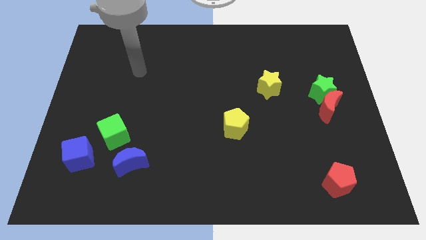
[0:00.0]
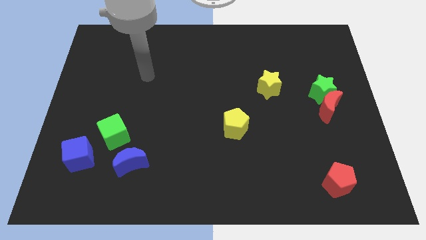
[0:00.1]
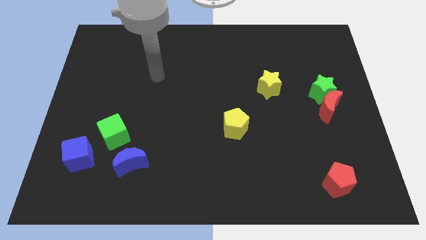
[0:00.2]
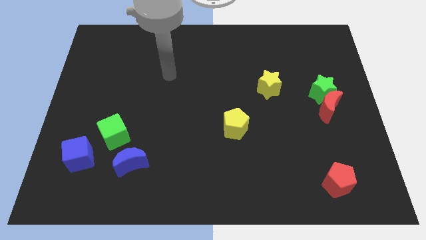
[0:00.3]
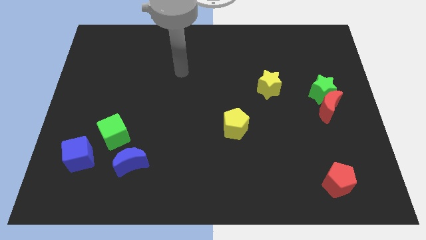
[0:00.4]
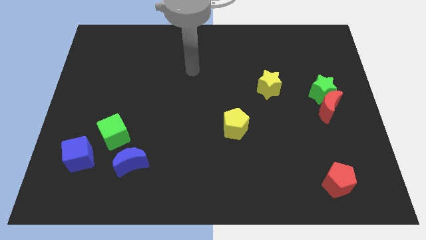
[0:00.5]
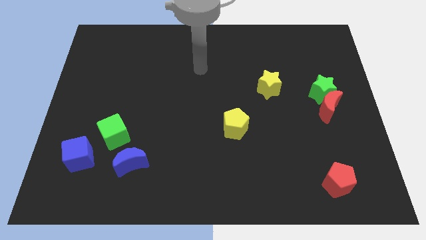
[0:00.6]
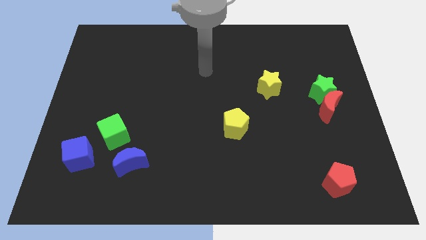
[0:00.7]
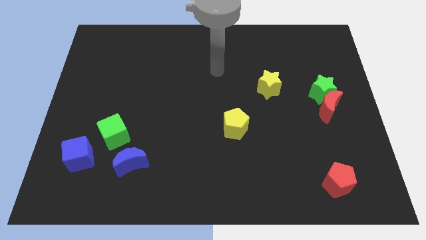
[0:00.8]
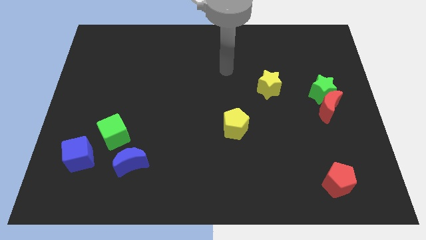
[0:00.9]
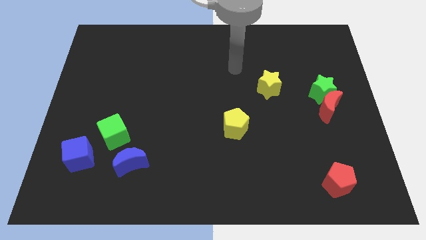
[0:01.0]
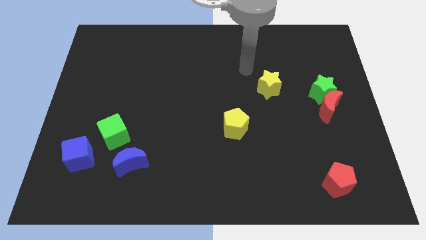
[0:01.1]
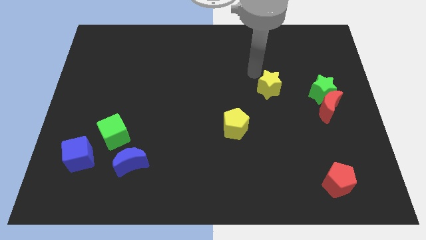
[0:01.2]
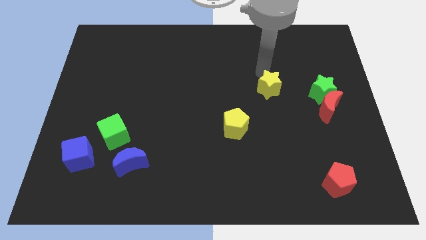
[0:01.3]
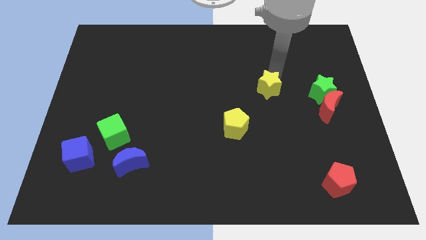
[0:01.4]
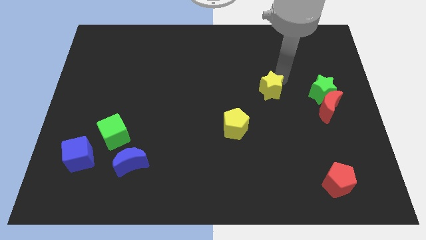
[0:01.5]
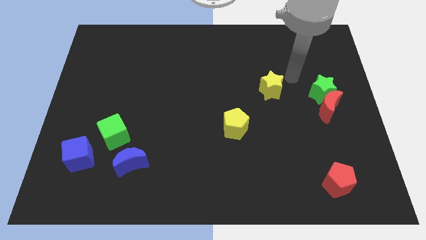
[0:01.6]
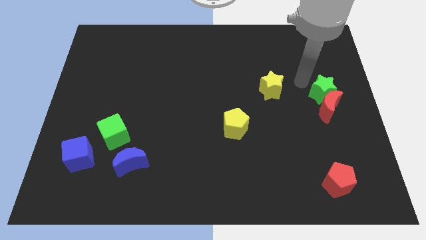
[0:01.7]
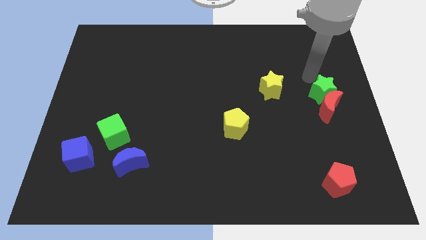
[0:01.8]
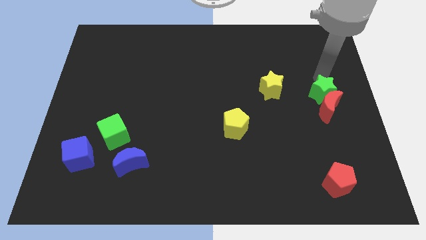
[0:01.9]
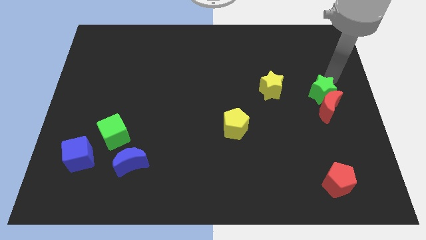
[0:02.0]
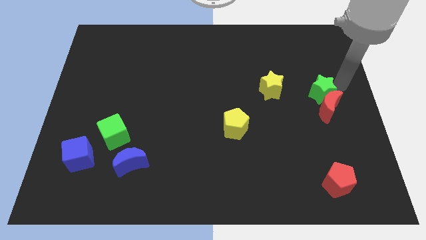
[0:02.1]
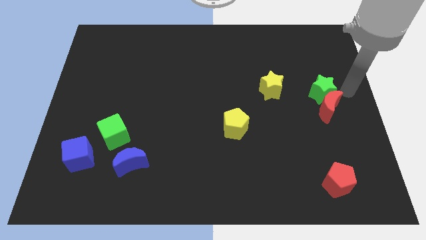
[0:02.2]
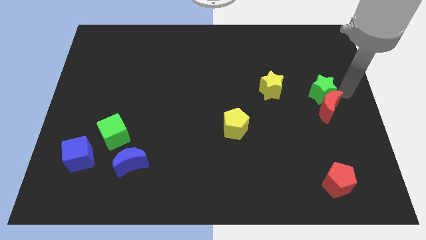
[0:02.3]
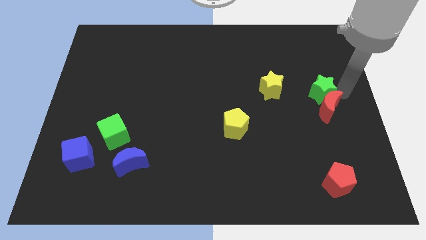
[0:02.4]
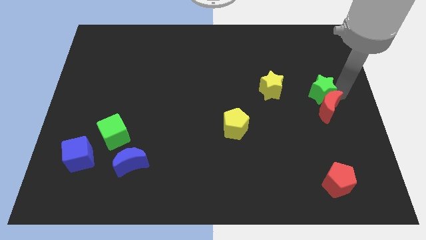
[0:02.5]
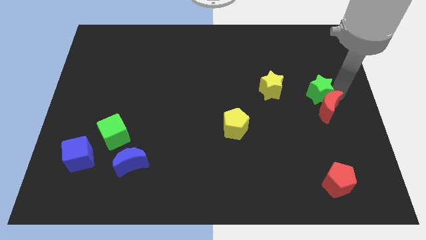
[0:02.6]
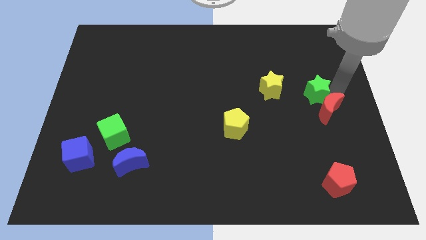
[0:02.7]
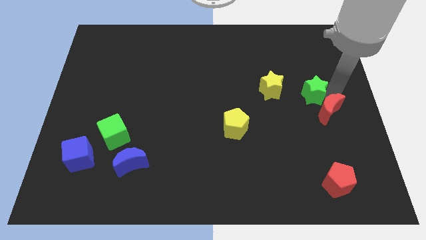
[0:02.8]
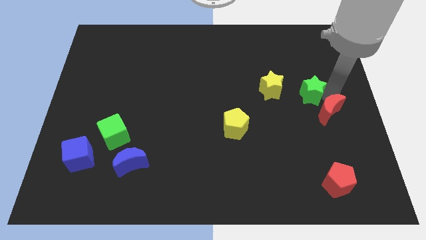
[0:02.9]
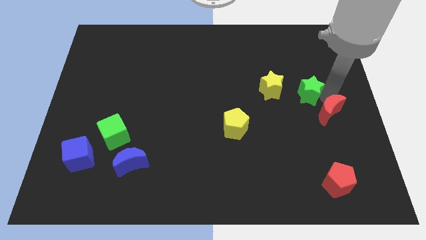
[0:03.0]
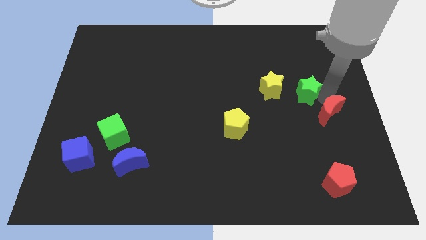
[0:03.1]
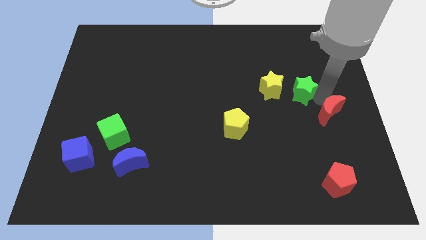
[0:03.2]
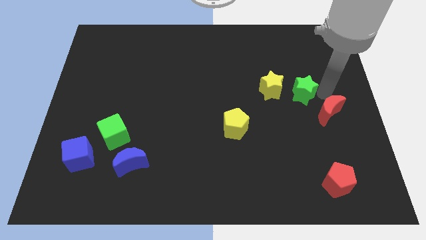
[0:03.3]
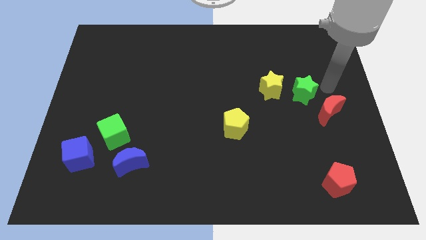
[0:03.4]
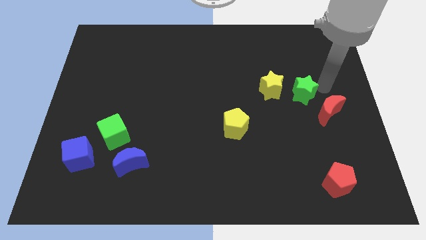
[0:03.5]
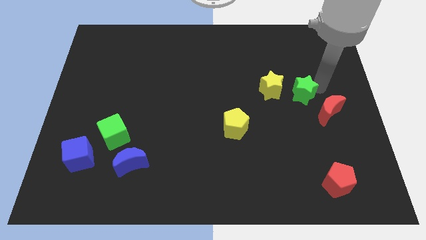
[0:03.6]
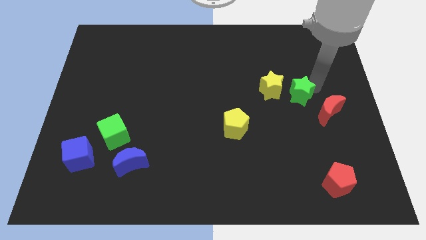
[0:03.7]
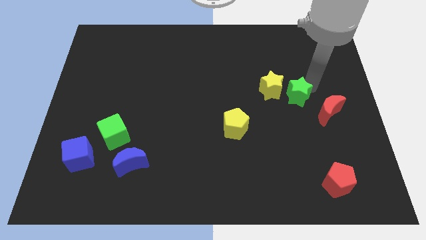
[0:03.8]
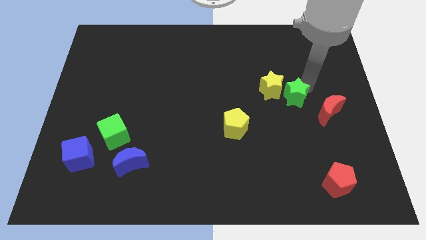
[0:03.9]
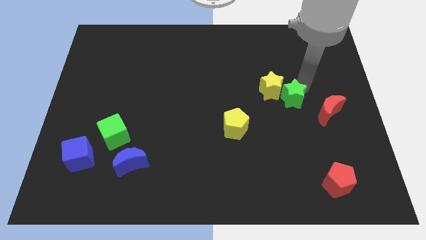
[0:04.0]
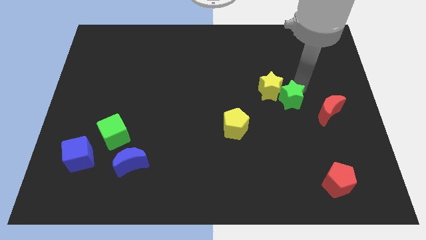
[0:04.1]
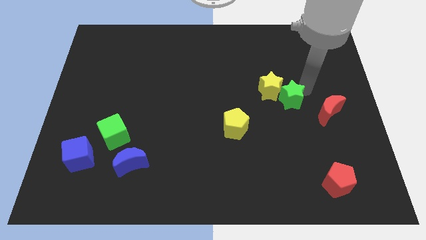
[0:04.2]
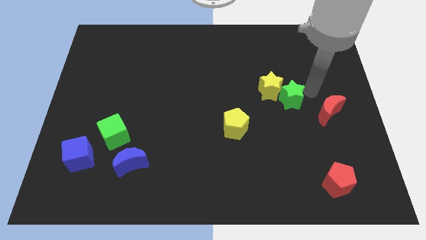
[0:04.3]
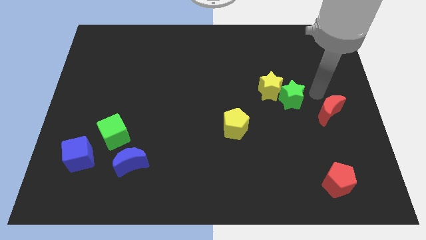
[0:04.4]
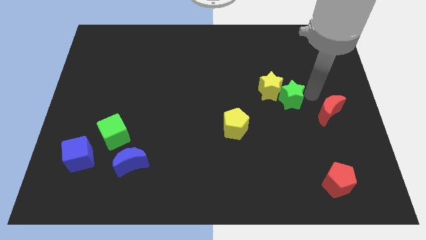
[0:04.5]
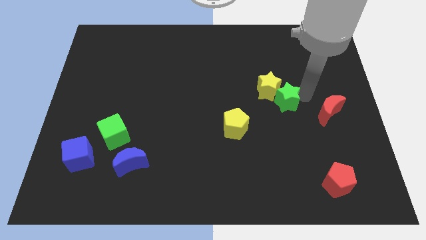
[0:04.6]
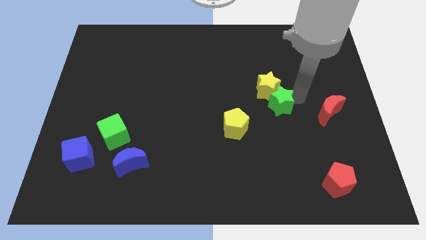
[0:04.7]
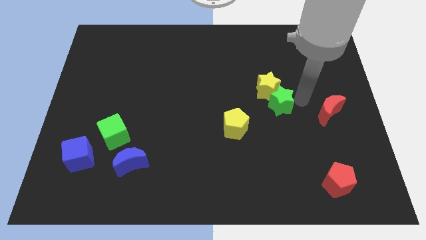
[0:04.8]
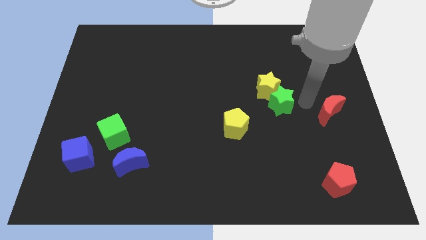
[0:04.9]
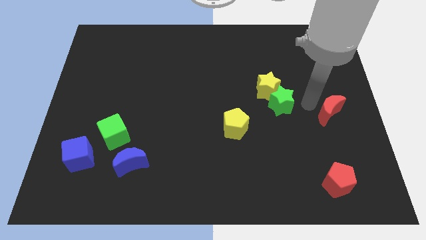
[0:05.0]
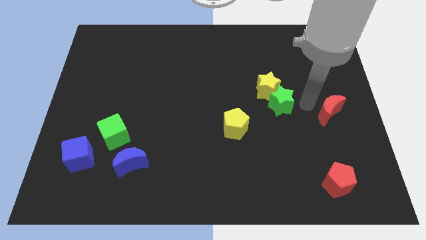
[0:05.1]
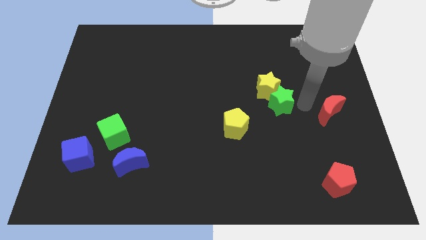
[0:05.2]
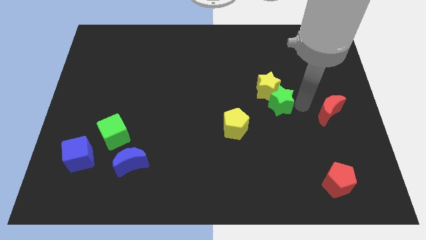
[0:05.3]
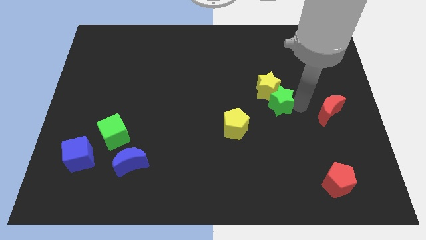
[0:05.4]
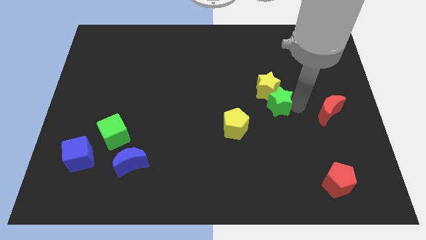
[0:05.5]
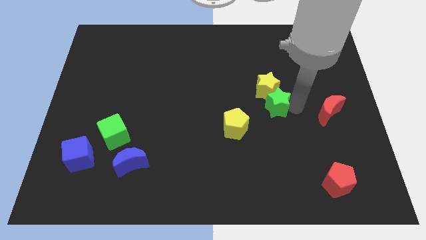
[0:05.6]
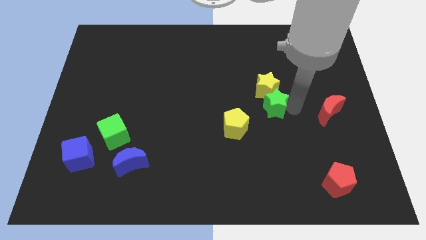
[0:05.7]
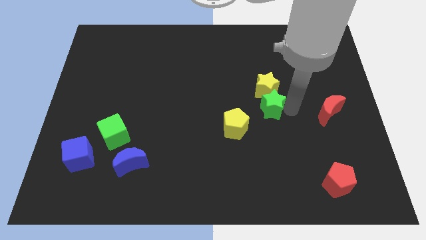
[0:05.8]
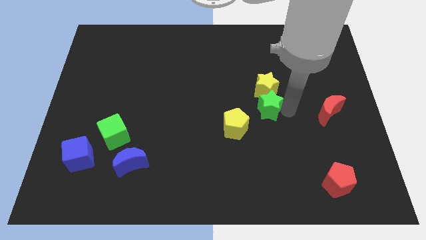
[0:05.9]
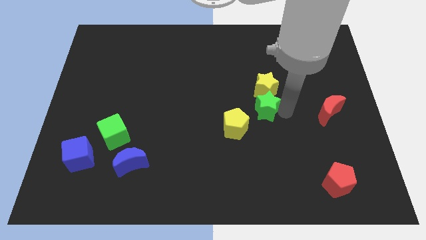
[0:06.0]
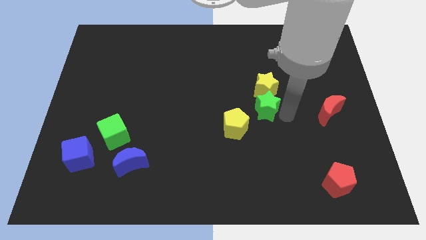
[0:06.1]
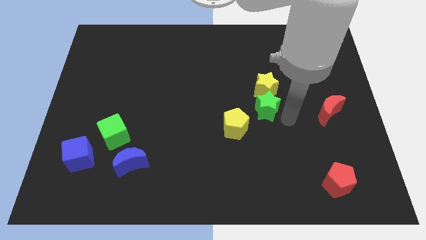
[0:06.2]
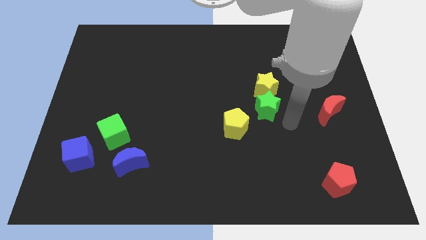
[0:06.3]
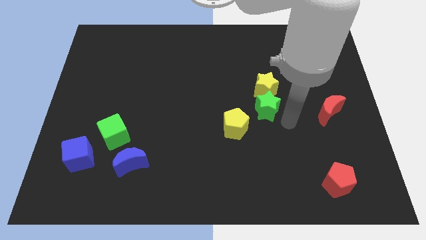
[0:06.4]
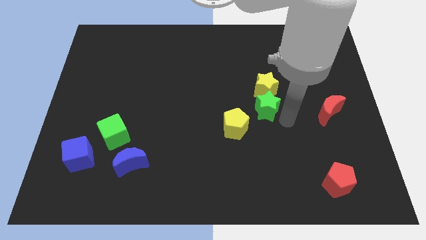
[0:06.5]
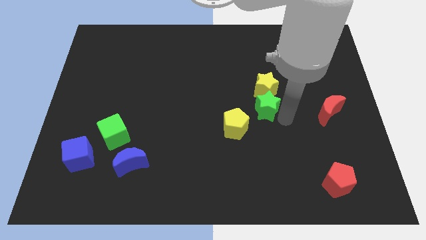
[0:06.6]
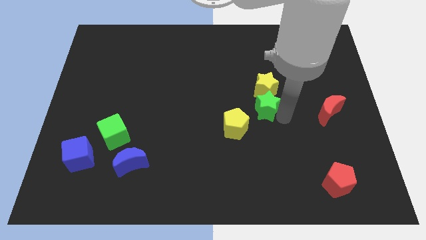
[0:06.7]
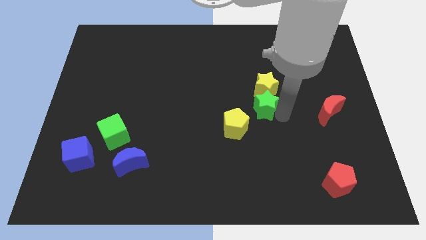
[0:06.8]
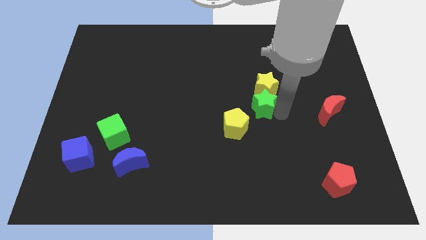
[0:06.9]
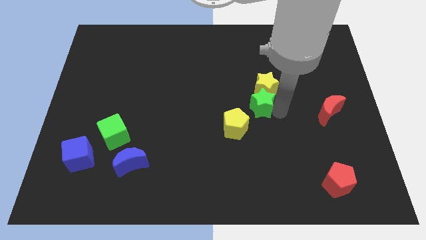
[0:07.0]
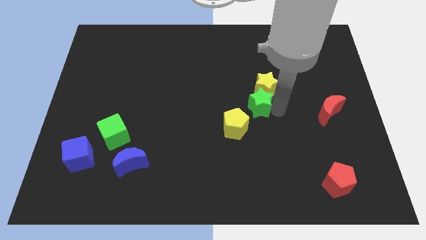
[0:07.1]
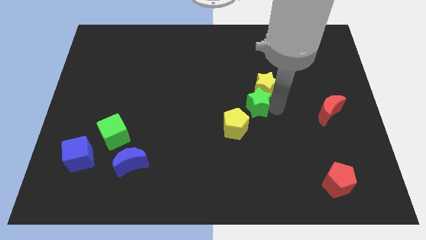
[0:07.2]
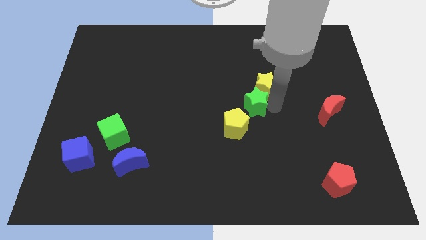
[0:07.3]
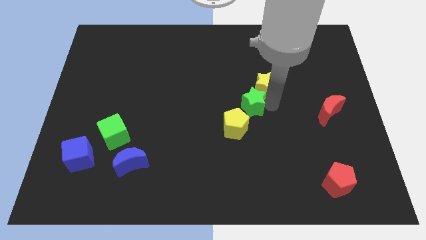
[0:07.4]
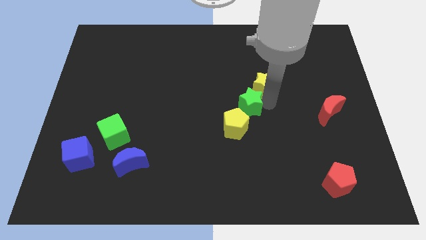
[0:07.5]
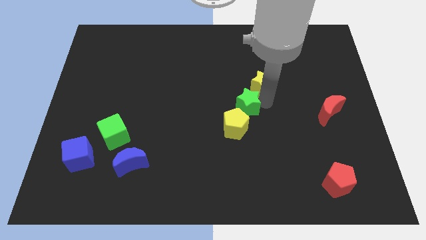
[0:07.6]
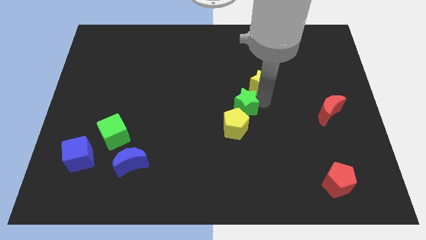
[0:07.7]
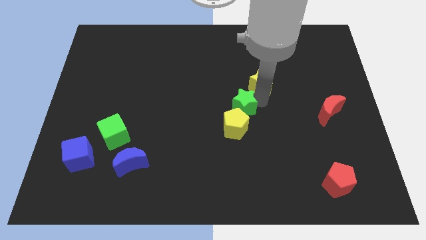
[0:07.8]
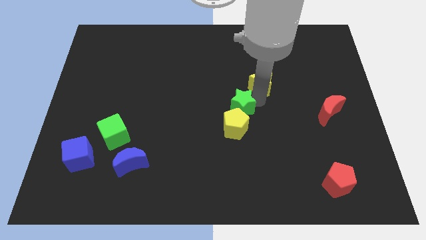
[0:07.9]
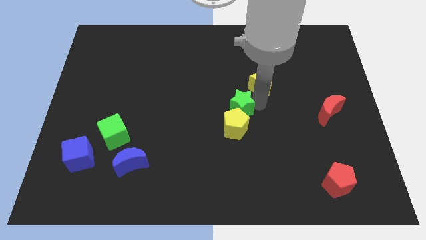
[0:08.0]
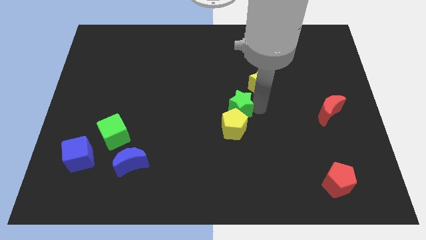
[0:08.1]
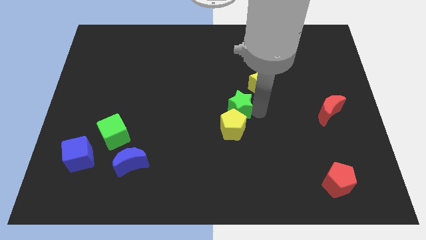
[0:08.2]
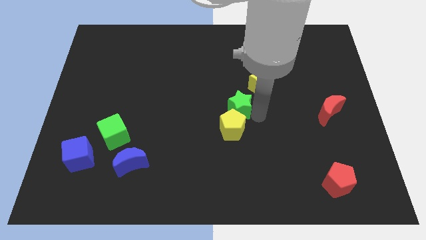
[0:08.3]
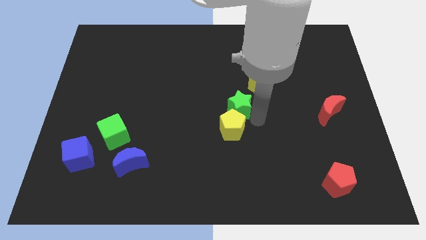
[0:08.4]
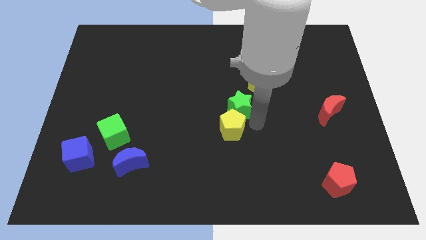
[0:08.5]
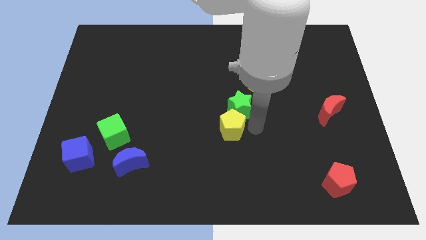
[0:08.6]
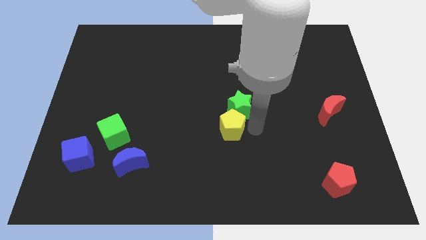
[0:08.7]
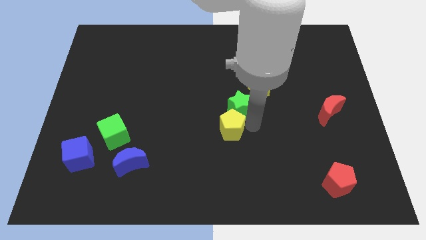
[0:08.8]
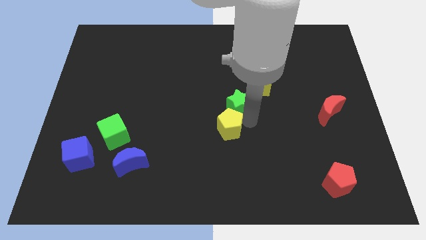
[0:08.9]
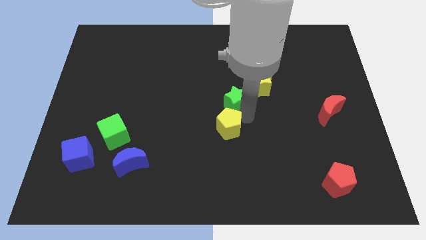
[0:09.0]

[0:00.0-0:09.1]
move the green star left
